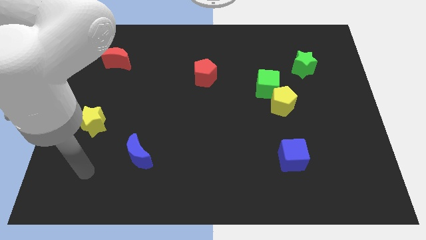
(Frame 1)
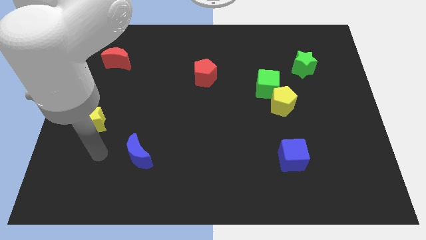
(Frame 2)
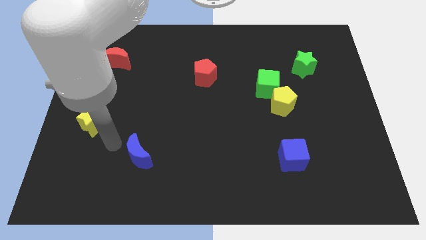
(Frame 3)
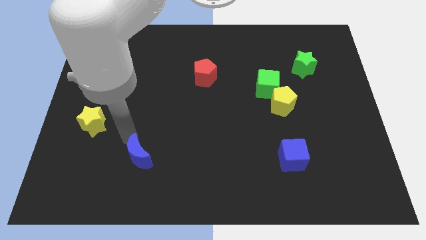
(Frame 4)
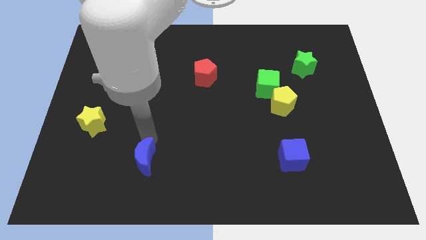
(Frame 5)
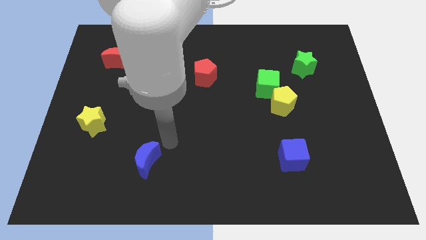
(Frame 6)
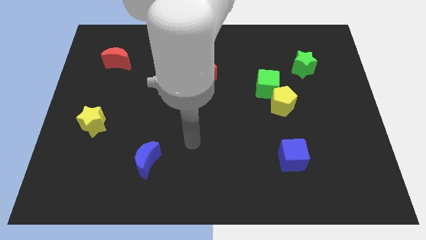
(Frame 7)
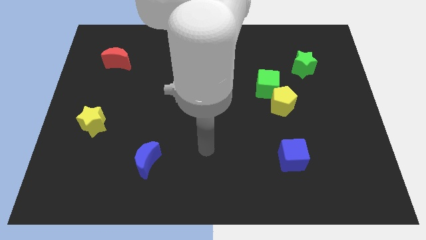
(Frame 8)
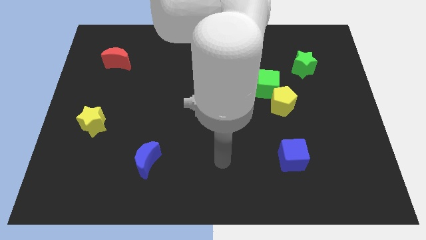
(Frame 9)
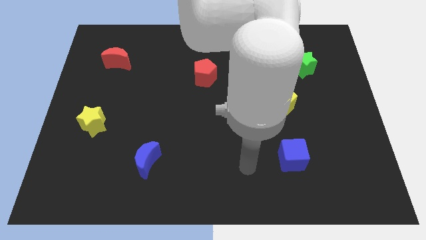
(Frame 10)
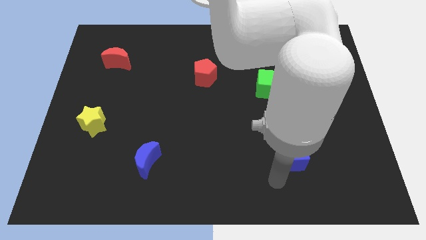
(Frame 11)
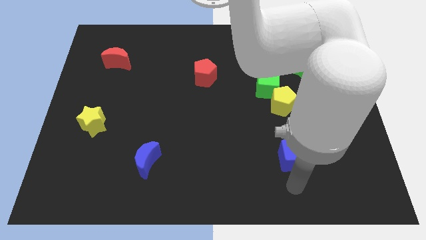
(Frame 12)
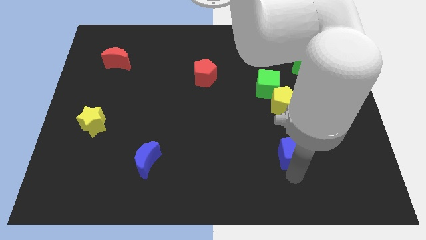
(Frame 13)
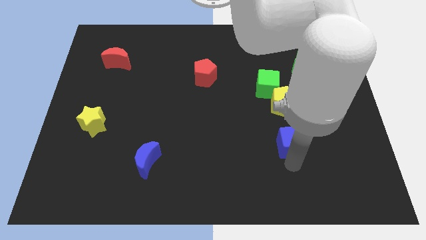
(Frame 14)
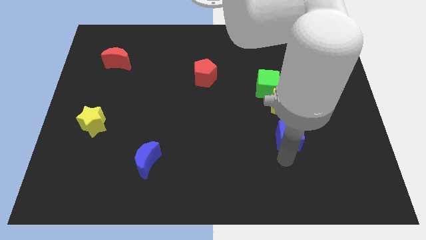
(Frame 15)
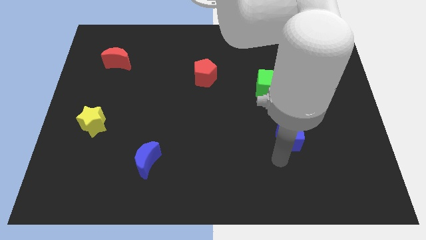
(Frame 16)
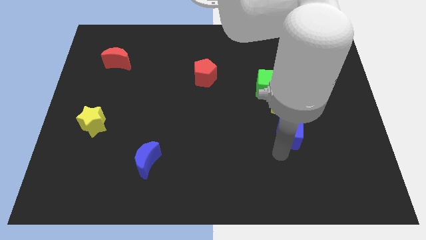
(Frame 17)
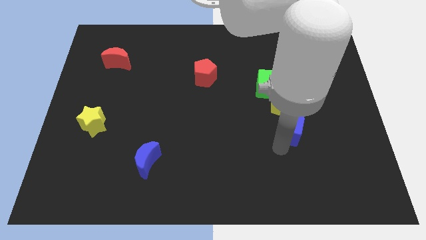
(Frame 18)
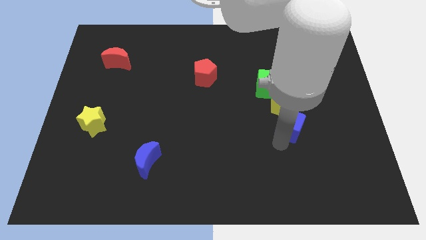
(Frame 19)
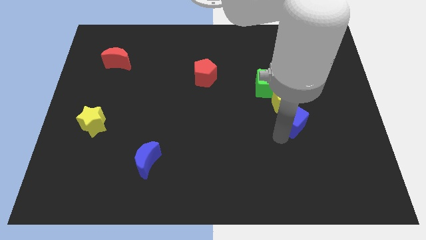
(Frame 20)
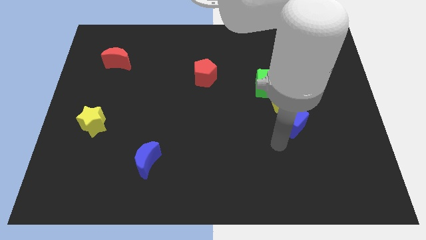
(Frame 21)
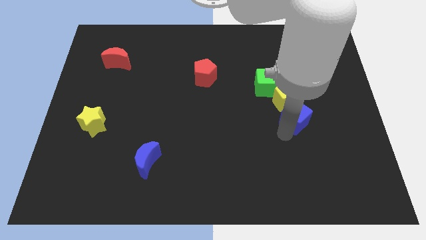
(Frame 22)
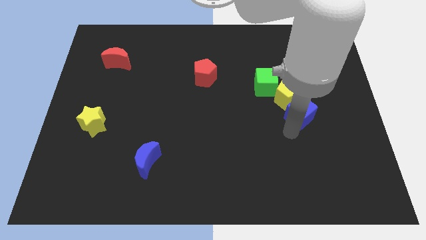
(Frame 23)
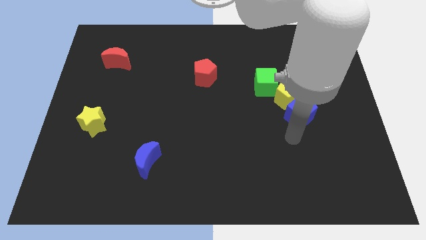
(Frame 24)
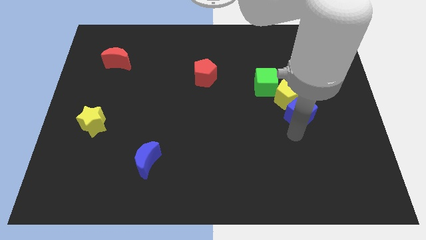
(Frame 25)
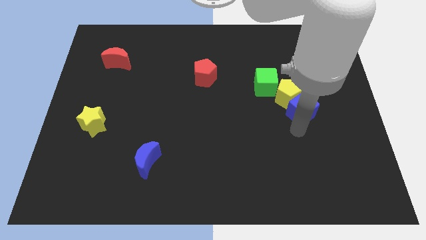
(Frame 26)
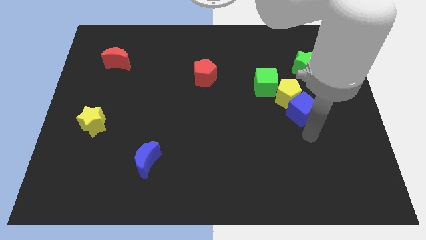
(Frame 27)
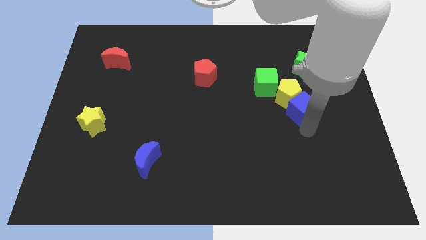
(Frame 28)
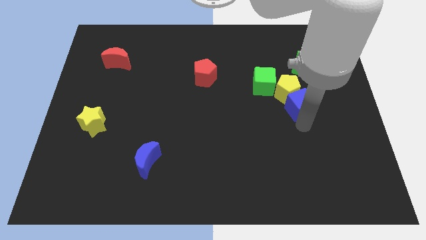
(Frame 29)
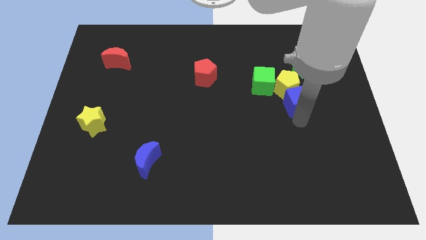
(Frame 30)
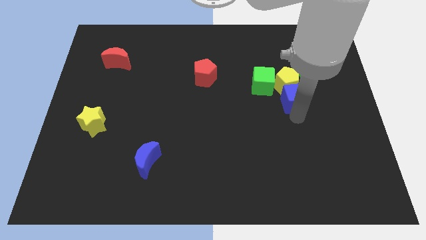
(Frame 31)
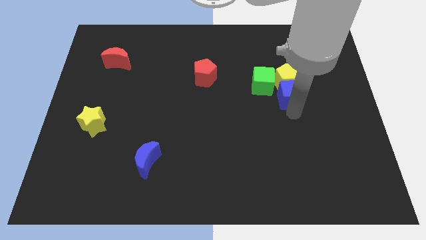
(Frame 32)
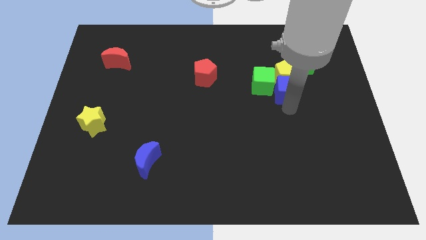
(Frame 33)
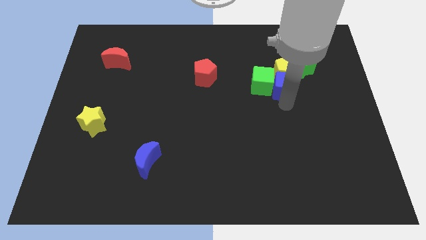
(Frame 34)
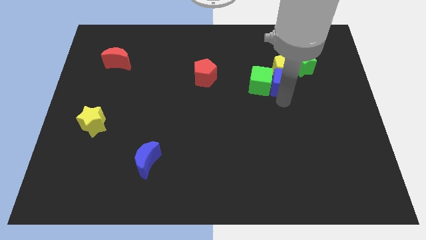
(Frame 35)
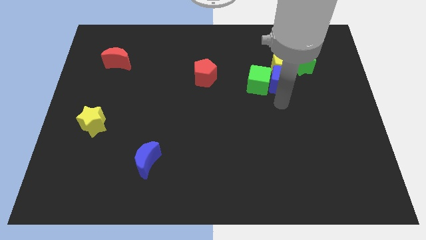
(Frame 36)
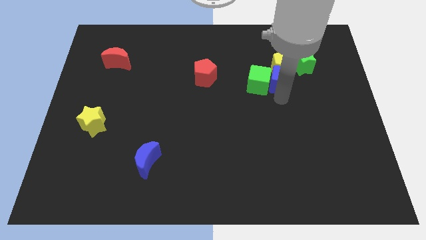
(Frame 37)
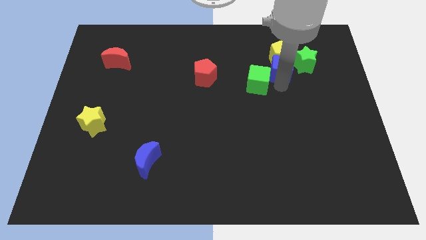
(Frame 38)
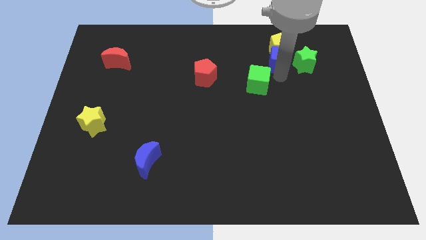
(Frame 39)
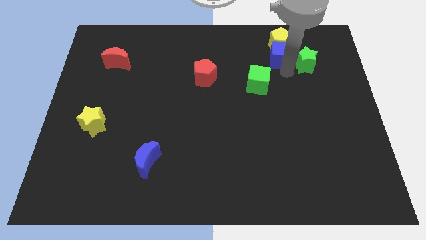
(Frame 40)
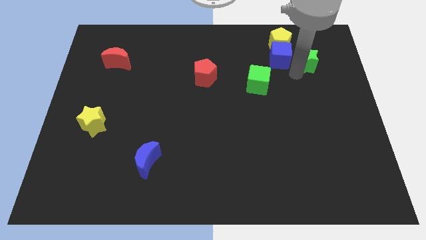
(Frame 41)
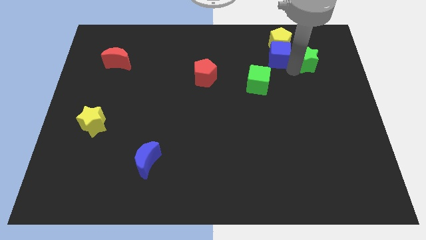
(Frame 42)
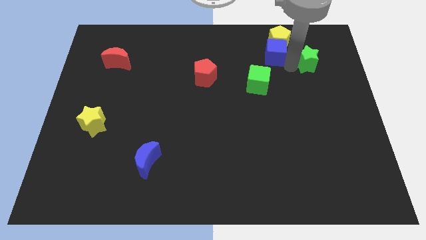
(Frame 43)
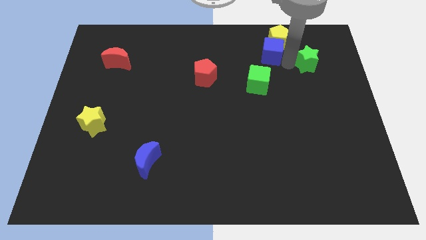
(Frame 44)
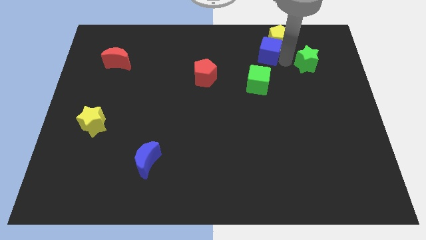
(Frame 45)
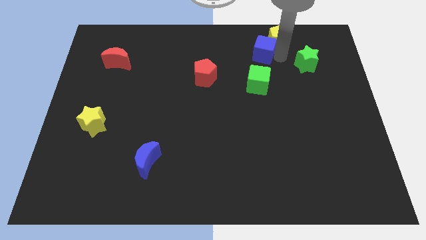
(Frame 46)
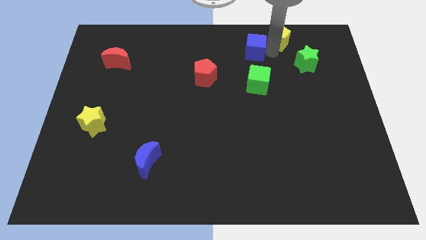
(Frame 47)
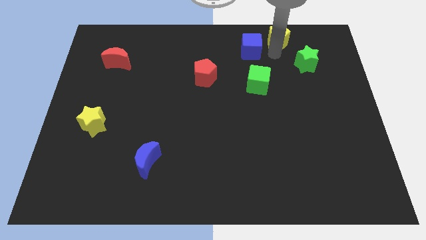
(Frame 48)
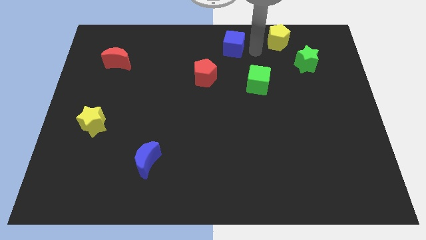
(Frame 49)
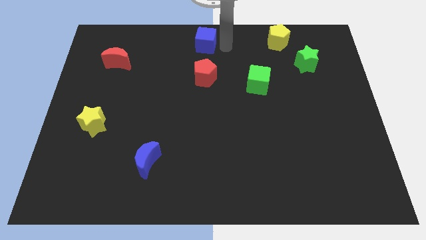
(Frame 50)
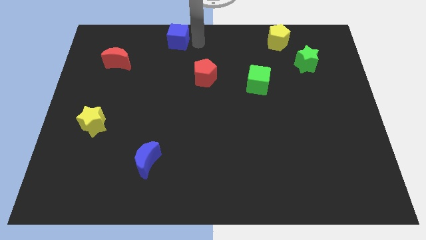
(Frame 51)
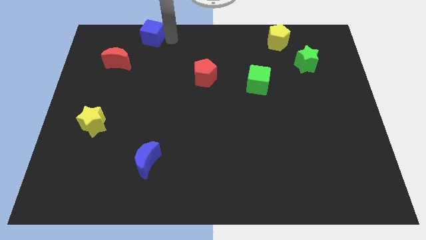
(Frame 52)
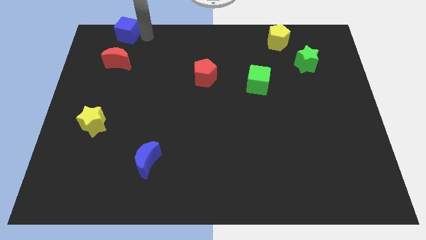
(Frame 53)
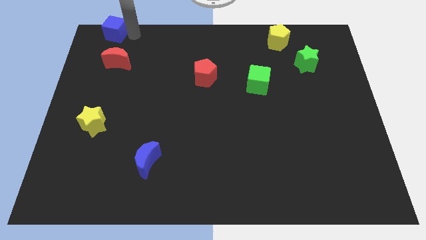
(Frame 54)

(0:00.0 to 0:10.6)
push the blue cube to the top left corner

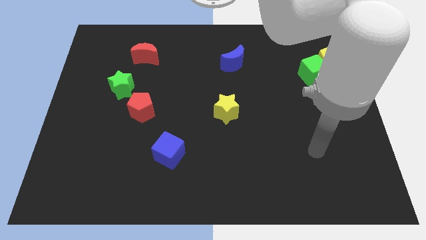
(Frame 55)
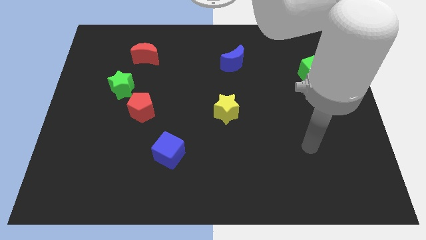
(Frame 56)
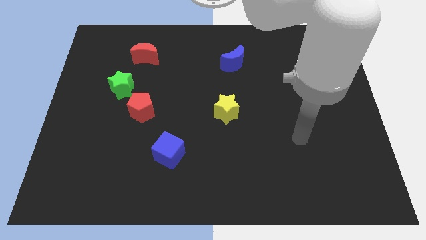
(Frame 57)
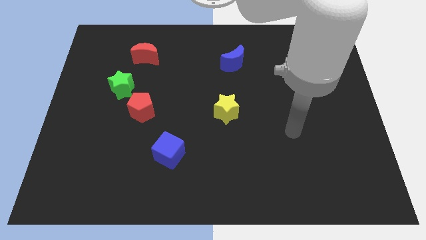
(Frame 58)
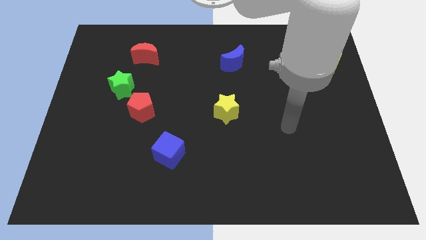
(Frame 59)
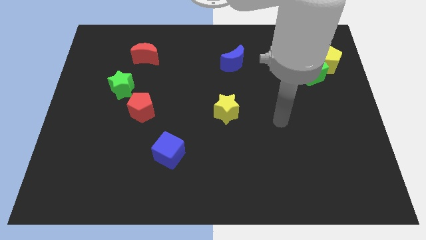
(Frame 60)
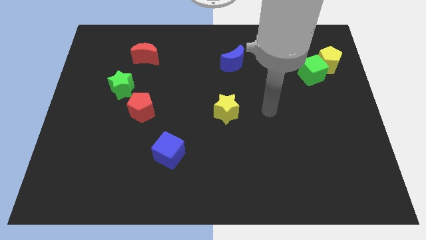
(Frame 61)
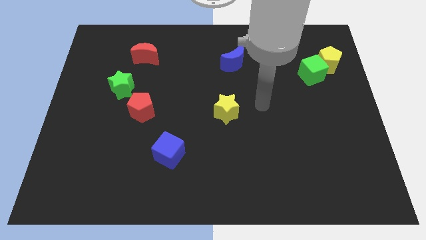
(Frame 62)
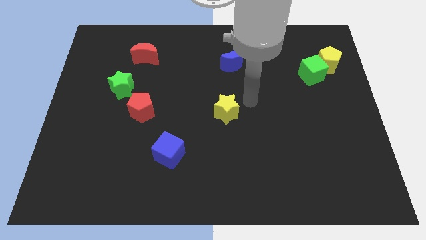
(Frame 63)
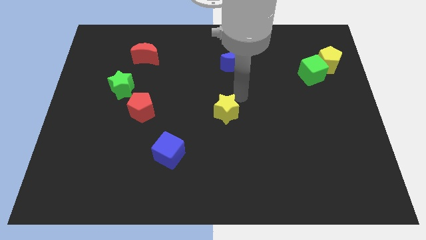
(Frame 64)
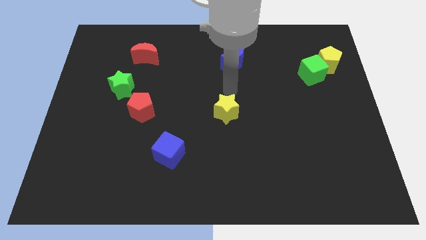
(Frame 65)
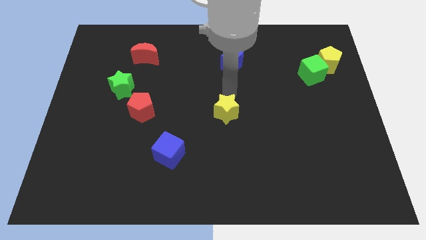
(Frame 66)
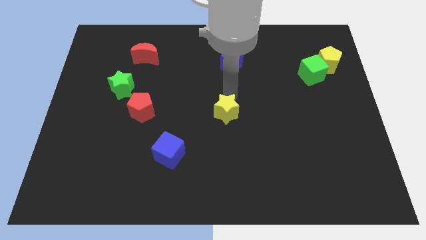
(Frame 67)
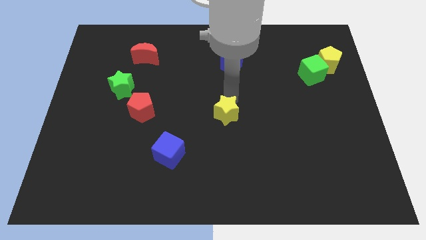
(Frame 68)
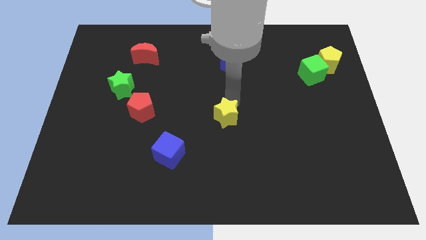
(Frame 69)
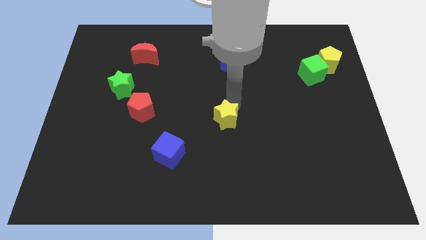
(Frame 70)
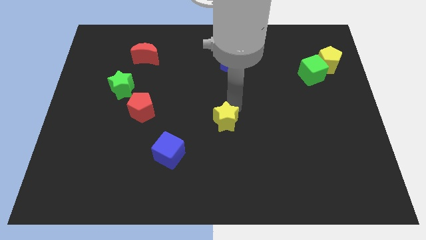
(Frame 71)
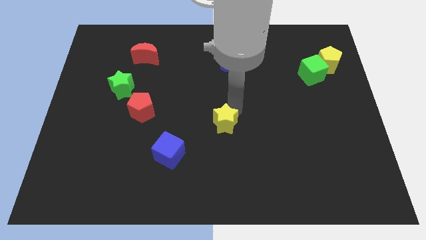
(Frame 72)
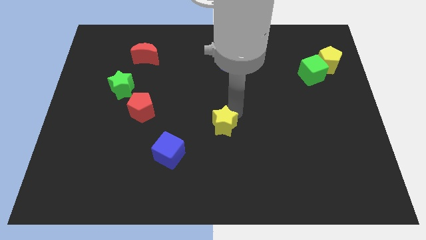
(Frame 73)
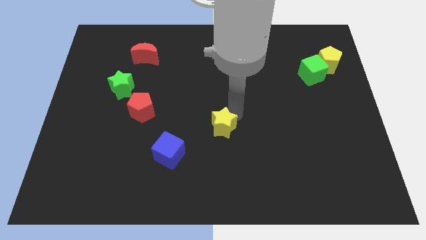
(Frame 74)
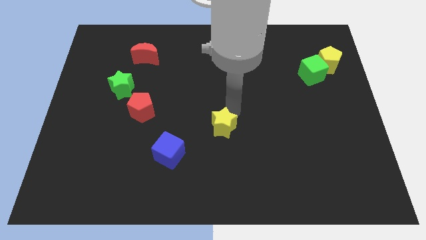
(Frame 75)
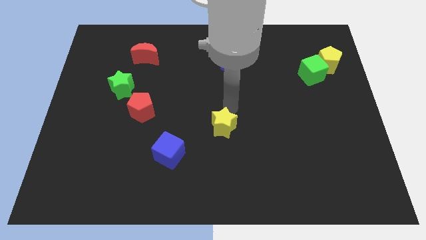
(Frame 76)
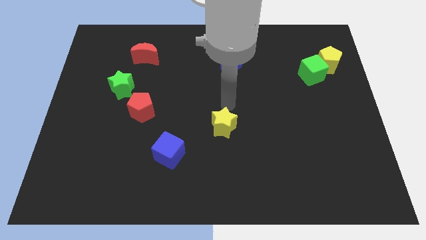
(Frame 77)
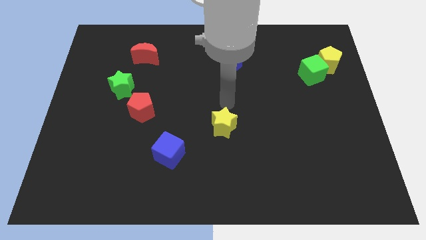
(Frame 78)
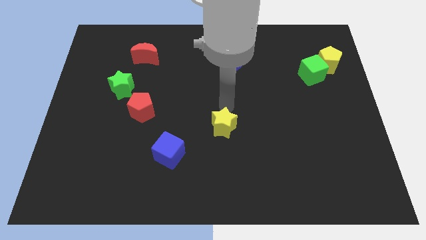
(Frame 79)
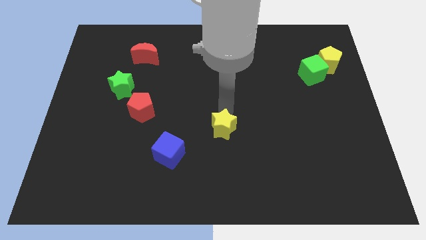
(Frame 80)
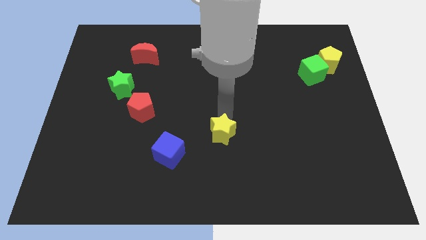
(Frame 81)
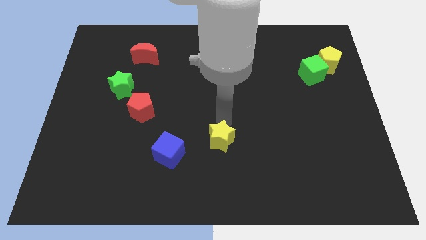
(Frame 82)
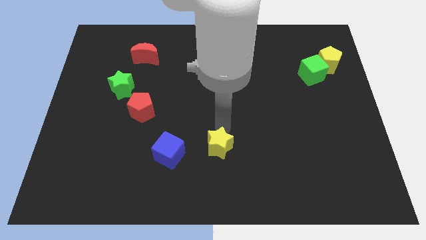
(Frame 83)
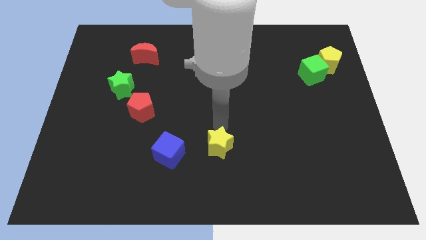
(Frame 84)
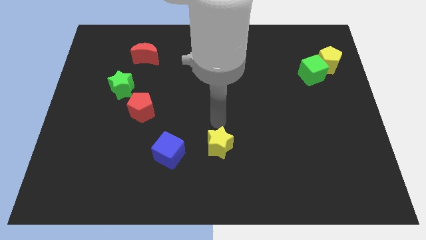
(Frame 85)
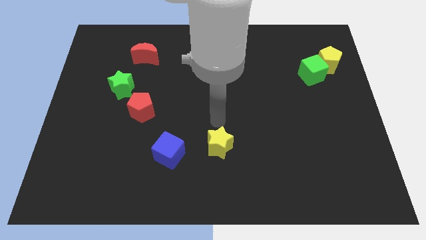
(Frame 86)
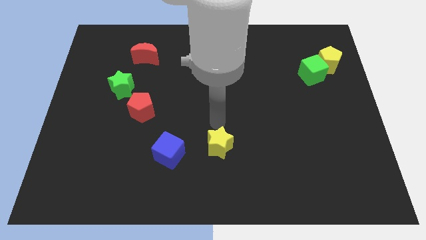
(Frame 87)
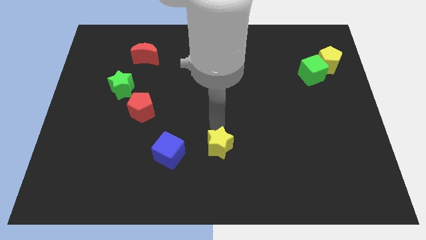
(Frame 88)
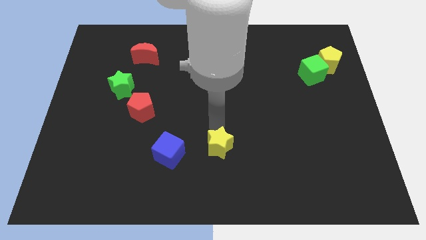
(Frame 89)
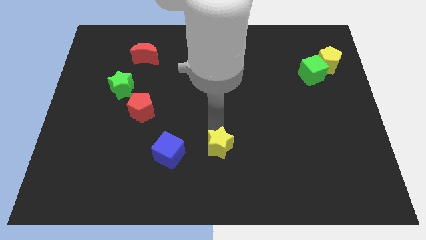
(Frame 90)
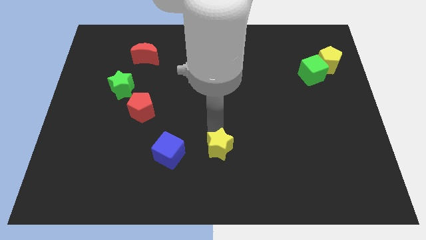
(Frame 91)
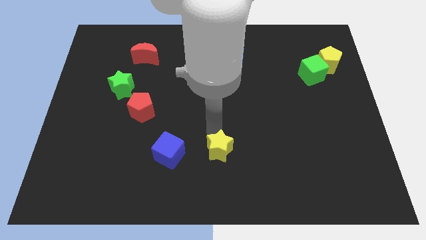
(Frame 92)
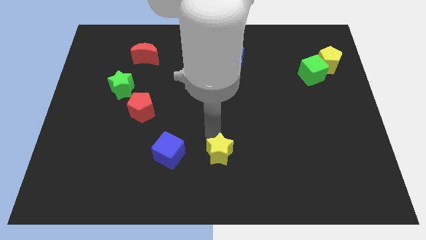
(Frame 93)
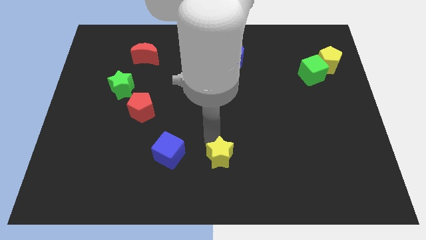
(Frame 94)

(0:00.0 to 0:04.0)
move the yellow star to the bottom
